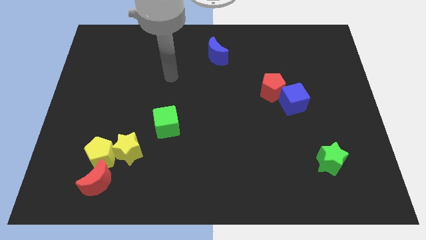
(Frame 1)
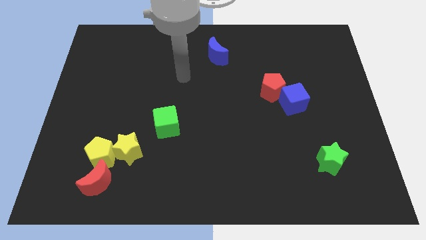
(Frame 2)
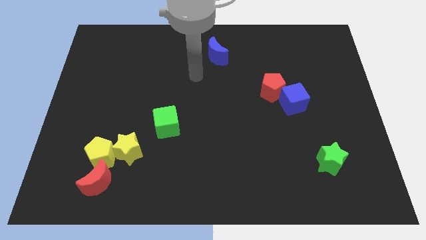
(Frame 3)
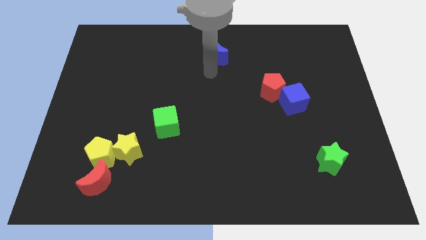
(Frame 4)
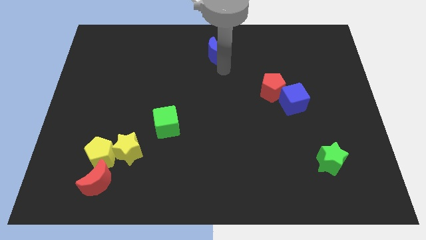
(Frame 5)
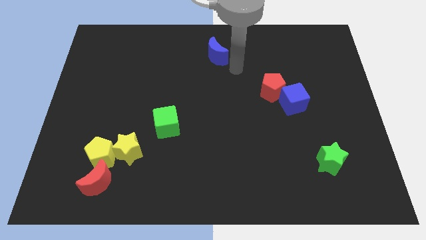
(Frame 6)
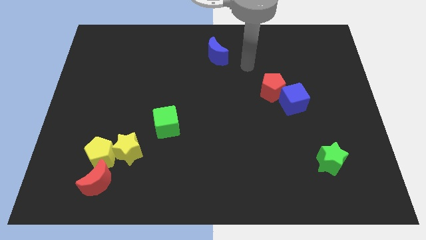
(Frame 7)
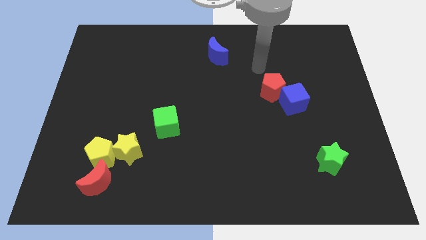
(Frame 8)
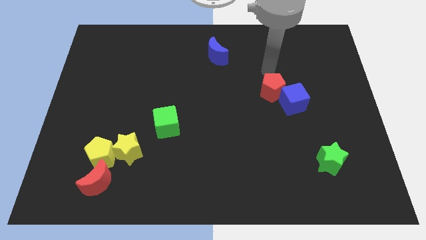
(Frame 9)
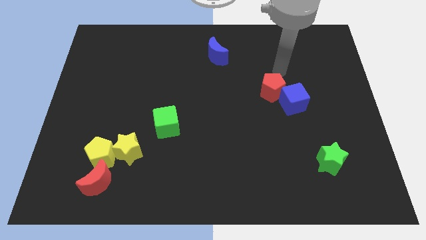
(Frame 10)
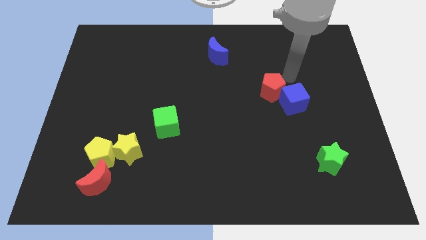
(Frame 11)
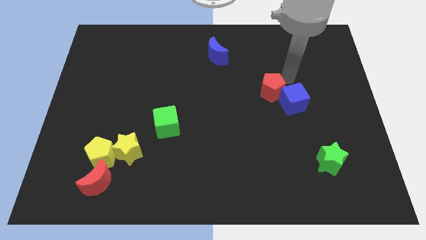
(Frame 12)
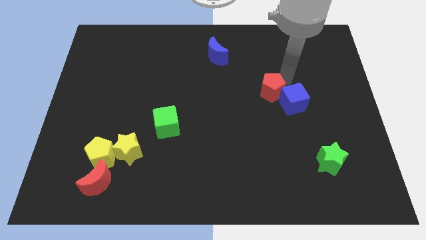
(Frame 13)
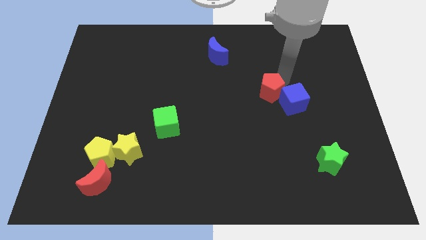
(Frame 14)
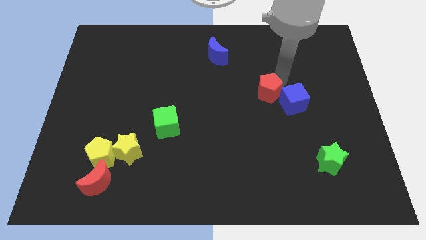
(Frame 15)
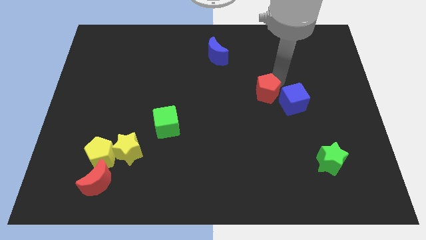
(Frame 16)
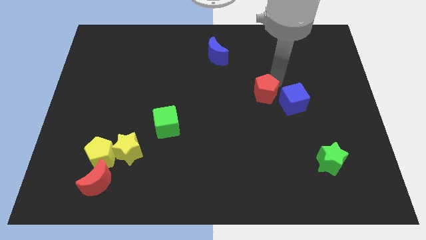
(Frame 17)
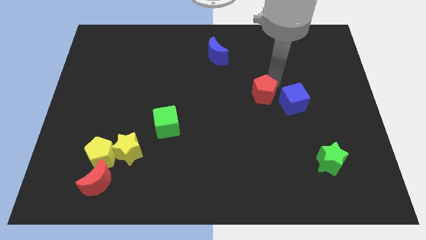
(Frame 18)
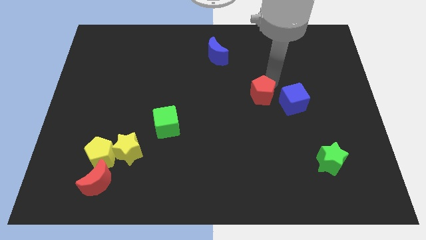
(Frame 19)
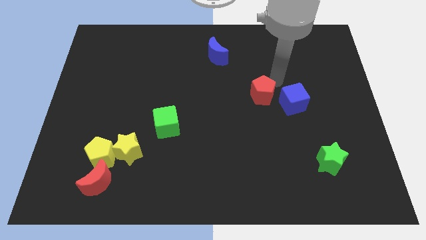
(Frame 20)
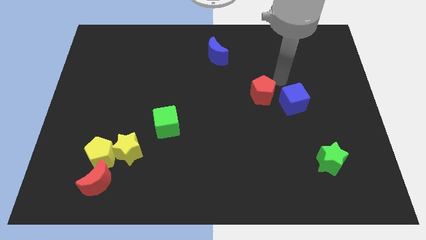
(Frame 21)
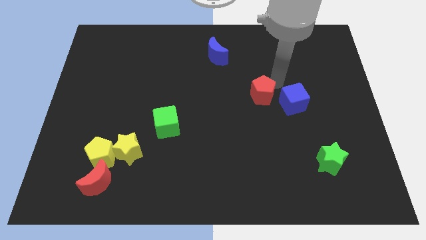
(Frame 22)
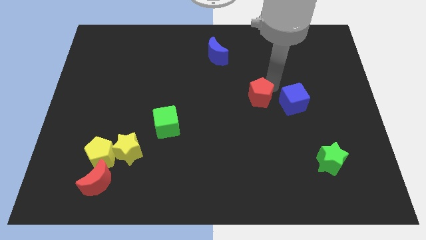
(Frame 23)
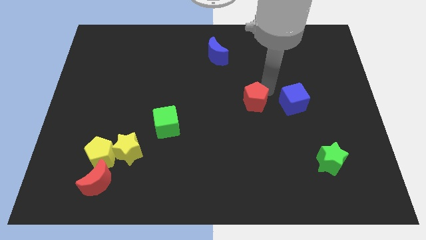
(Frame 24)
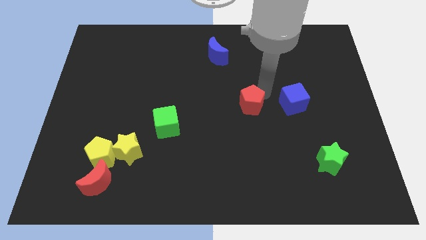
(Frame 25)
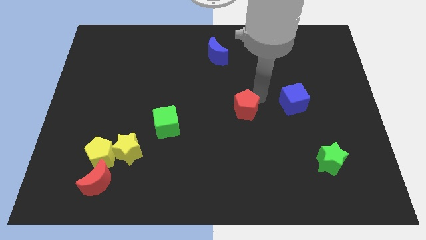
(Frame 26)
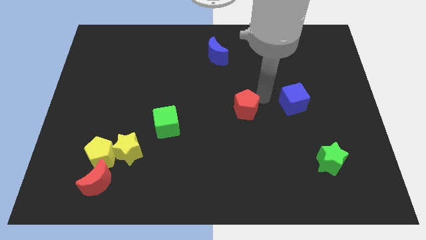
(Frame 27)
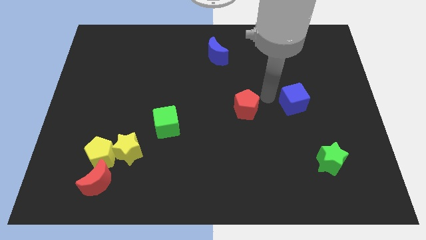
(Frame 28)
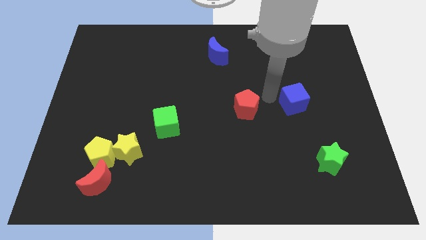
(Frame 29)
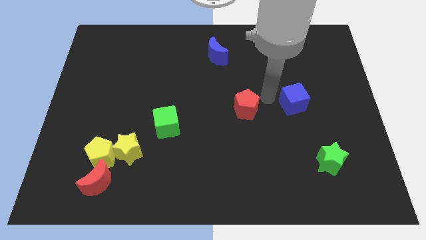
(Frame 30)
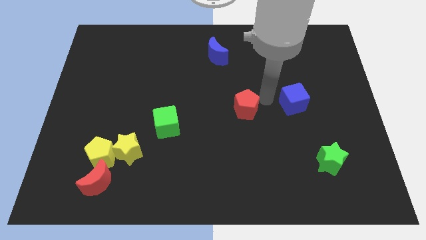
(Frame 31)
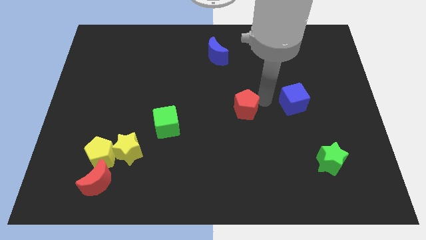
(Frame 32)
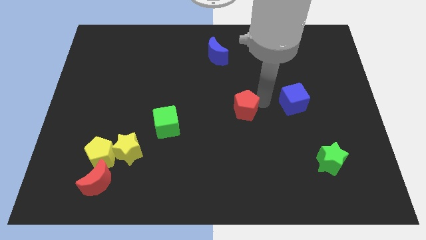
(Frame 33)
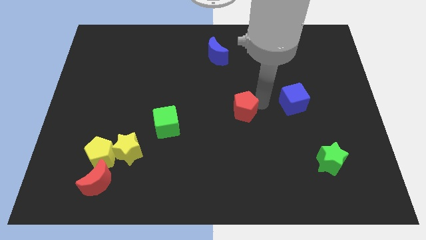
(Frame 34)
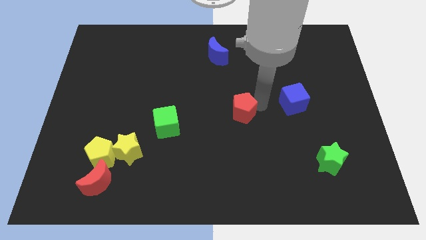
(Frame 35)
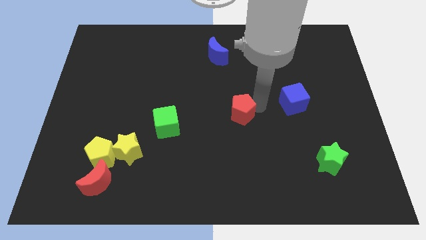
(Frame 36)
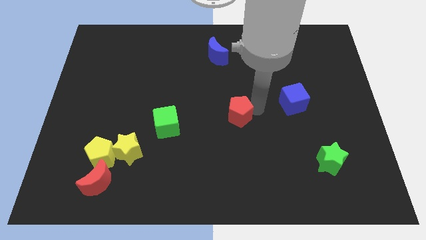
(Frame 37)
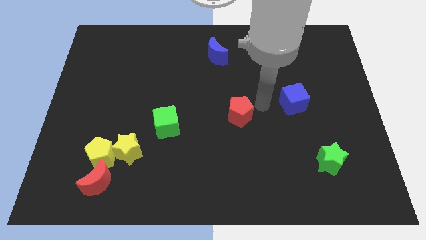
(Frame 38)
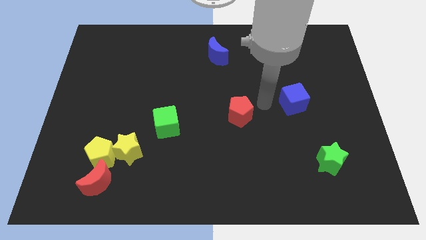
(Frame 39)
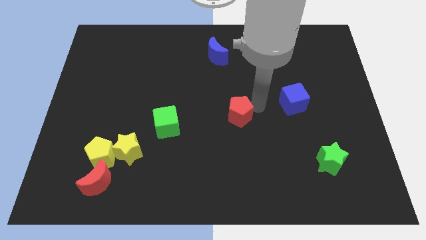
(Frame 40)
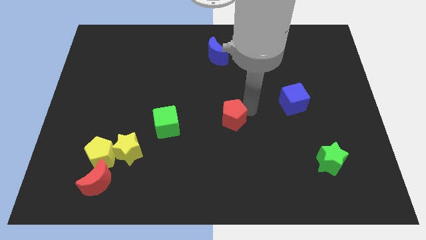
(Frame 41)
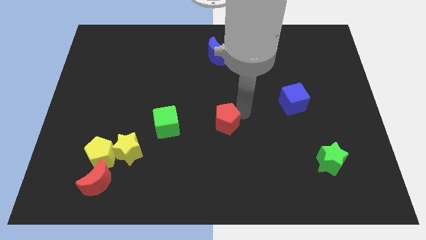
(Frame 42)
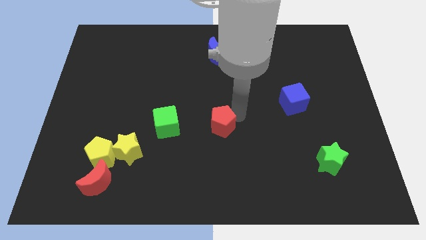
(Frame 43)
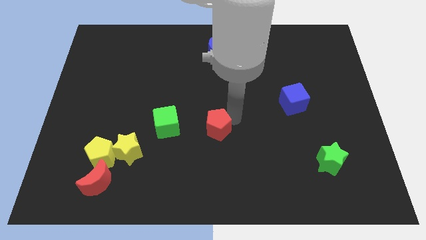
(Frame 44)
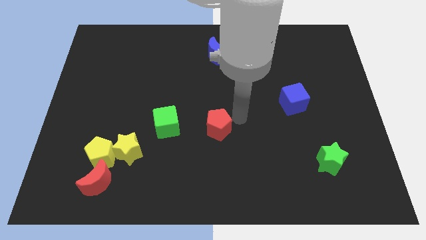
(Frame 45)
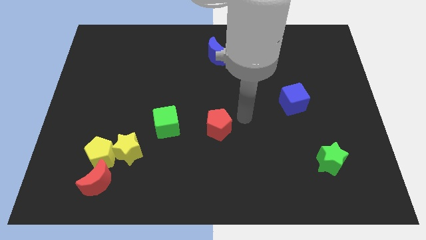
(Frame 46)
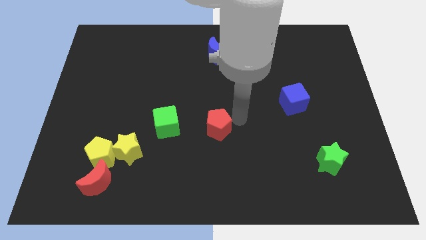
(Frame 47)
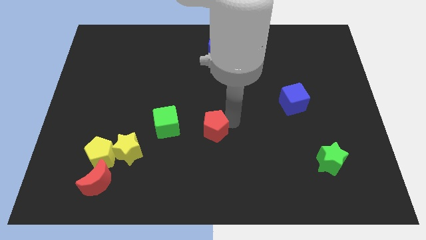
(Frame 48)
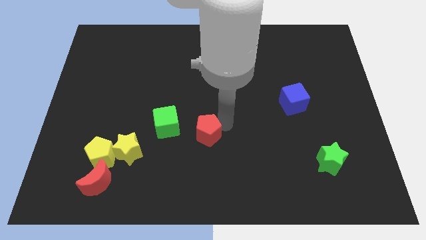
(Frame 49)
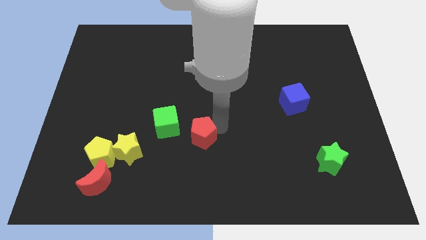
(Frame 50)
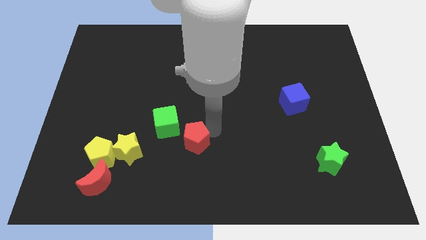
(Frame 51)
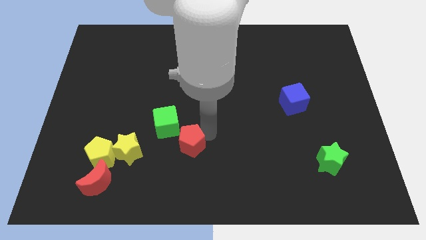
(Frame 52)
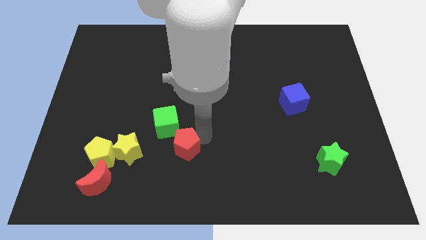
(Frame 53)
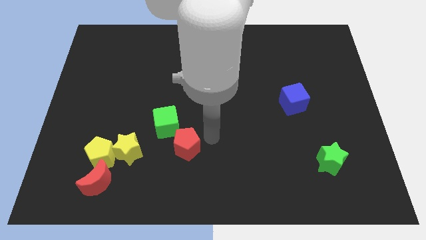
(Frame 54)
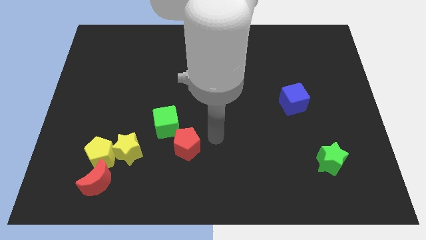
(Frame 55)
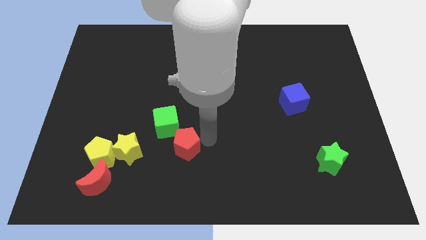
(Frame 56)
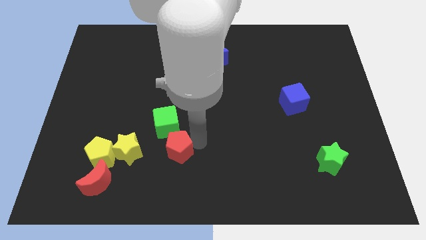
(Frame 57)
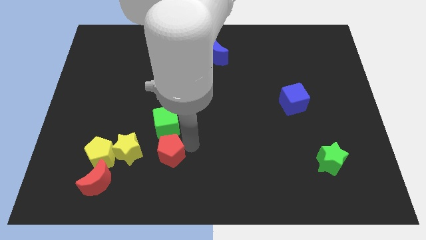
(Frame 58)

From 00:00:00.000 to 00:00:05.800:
move the red pentagon to the right side of the yellow pentagon

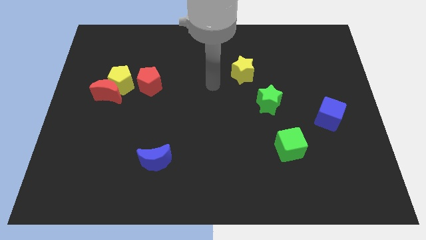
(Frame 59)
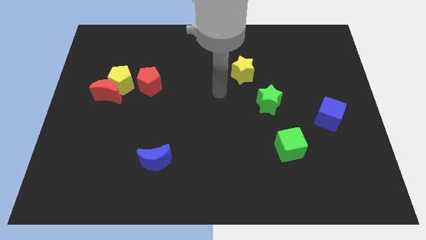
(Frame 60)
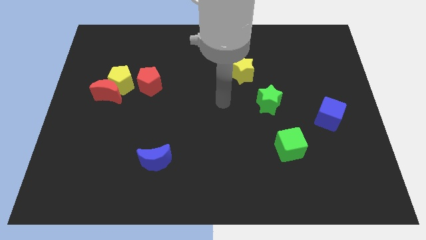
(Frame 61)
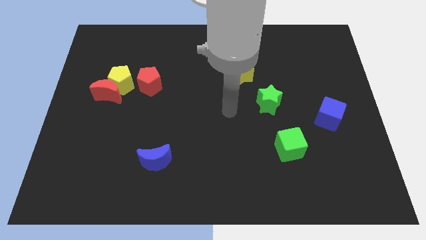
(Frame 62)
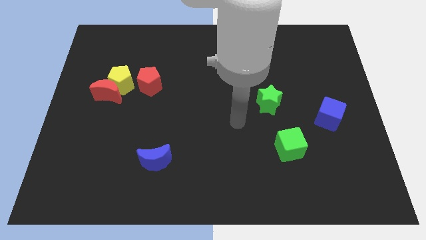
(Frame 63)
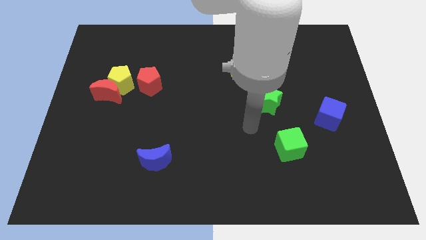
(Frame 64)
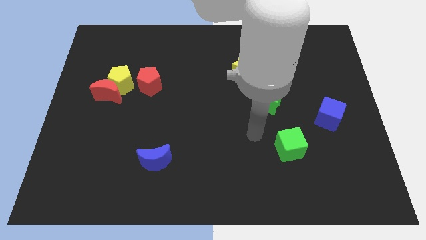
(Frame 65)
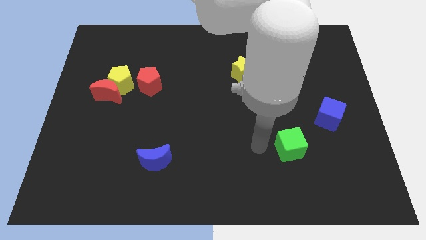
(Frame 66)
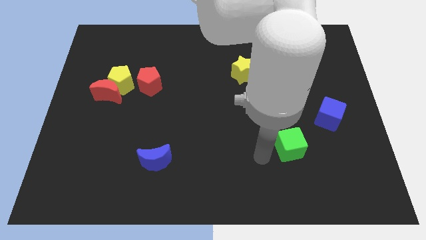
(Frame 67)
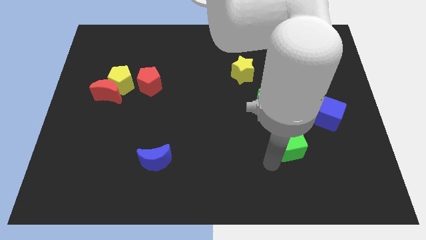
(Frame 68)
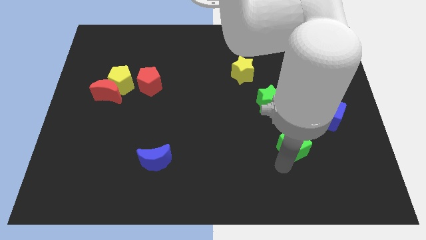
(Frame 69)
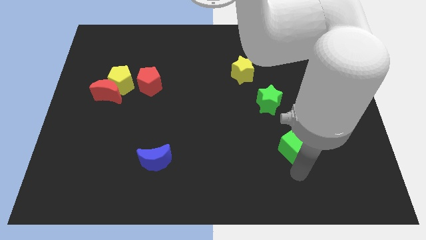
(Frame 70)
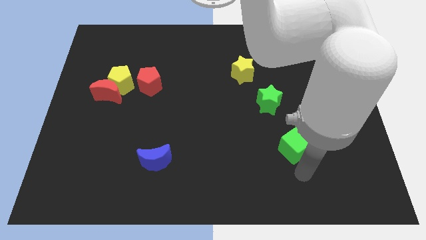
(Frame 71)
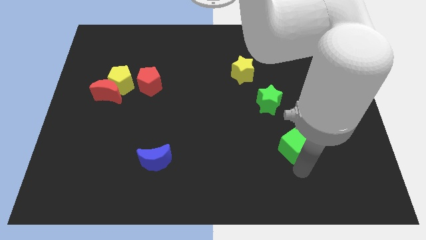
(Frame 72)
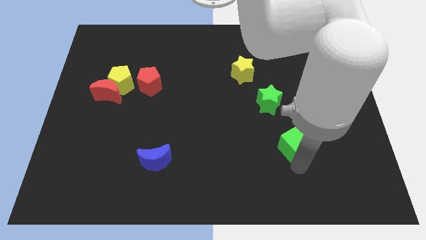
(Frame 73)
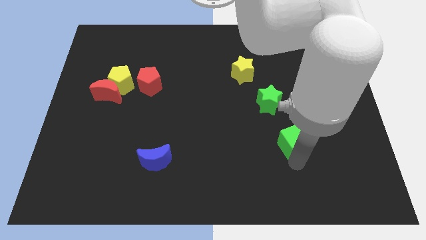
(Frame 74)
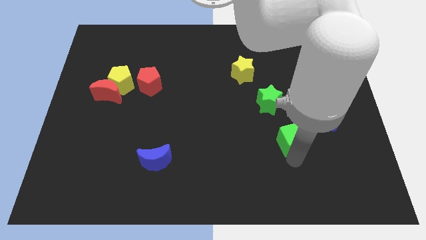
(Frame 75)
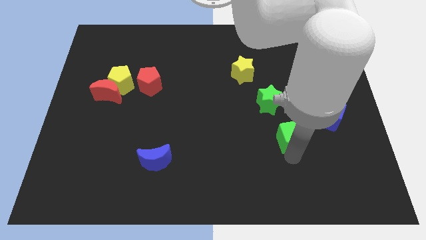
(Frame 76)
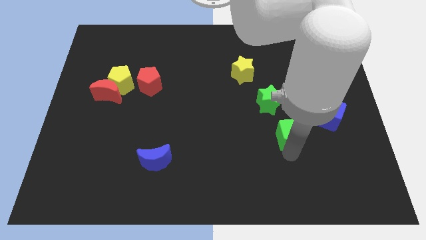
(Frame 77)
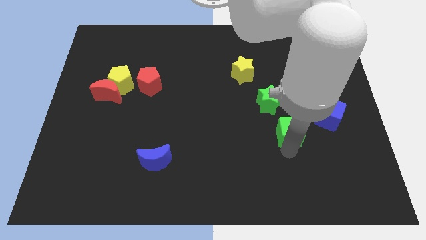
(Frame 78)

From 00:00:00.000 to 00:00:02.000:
push the green cube to the left of the blue cube
